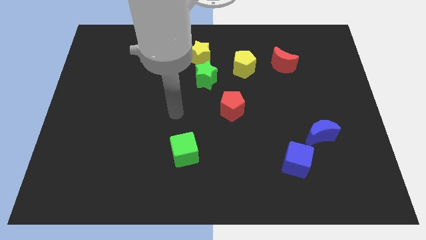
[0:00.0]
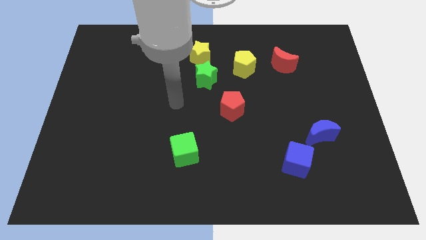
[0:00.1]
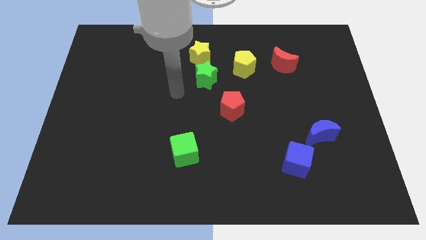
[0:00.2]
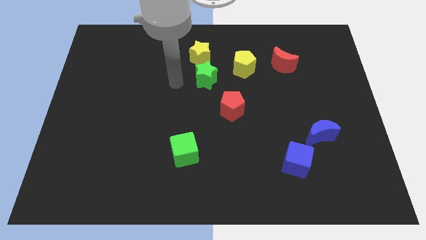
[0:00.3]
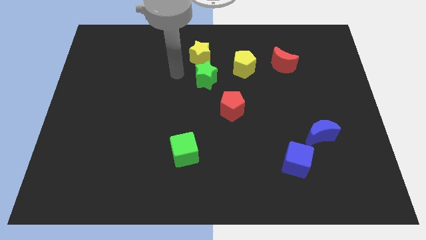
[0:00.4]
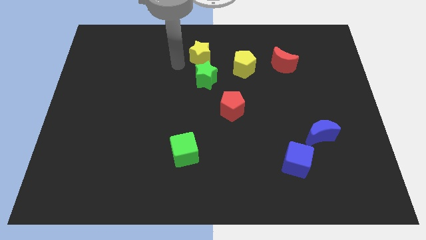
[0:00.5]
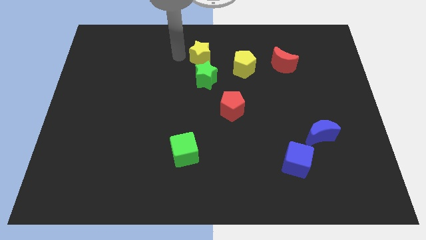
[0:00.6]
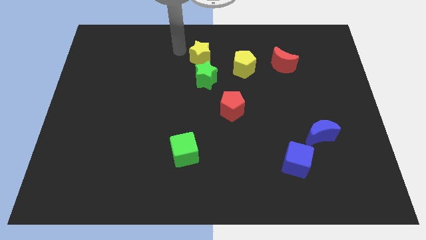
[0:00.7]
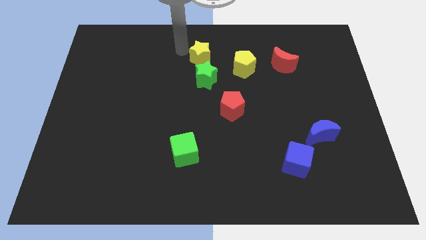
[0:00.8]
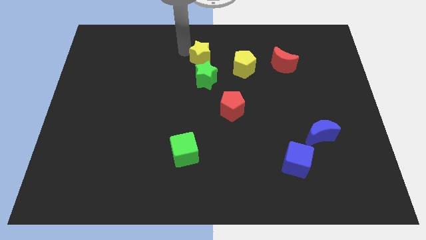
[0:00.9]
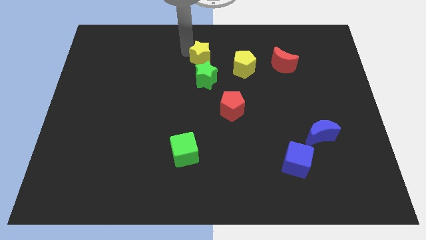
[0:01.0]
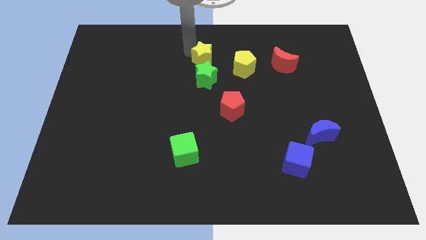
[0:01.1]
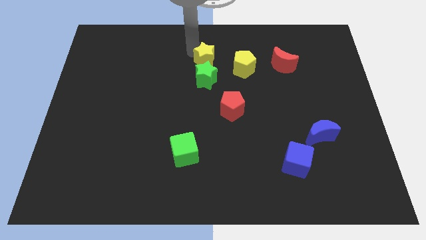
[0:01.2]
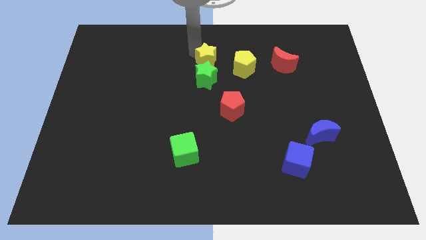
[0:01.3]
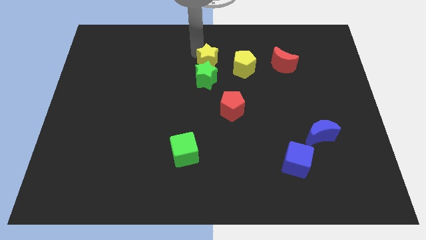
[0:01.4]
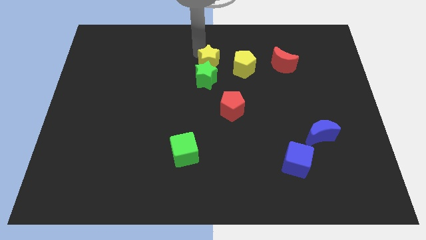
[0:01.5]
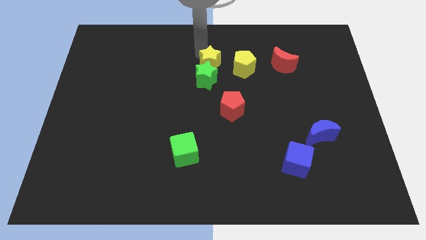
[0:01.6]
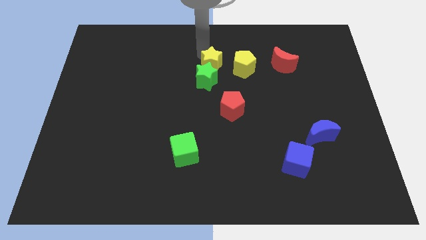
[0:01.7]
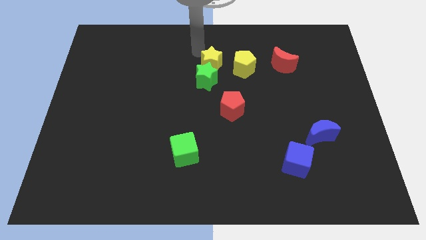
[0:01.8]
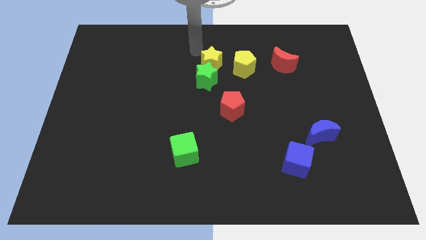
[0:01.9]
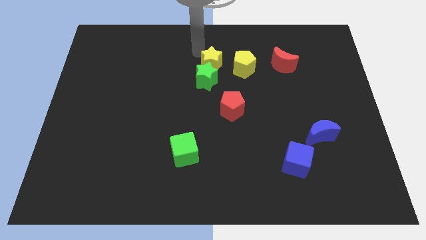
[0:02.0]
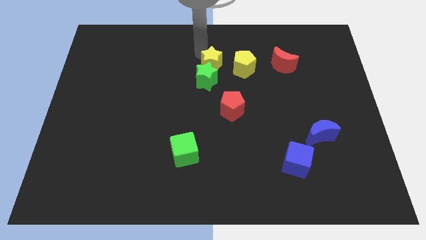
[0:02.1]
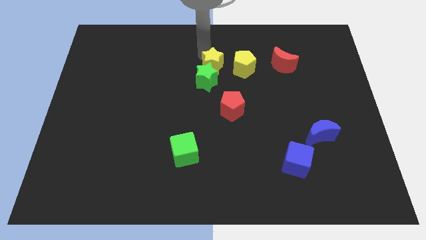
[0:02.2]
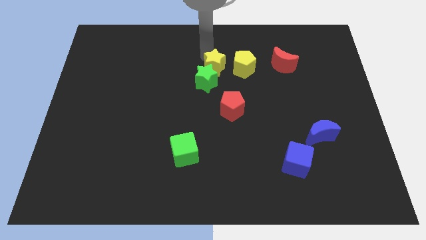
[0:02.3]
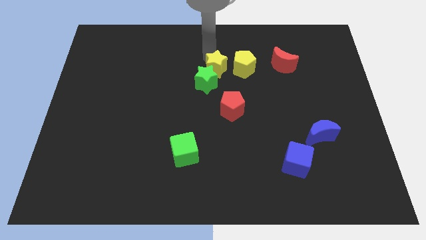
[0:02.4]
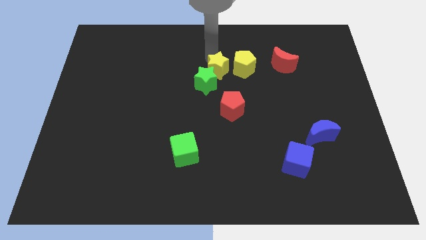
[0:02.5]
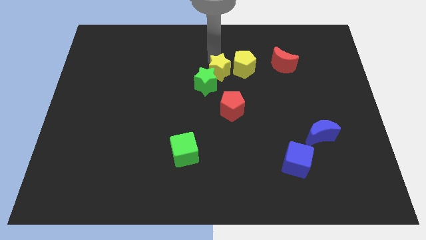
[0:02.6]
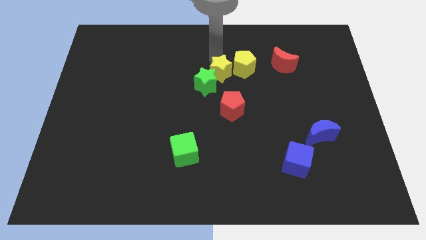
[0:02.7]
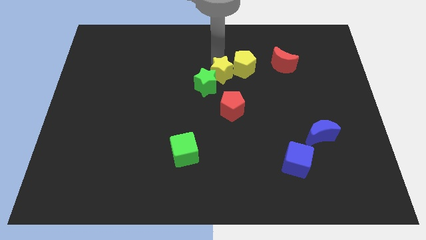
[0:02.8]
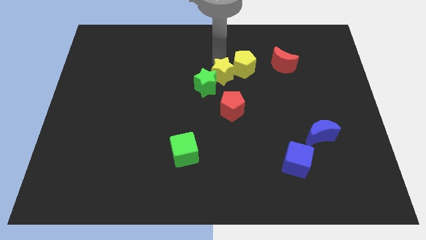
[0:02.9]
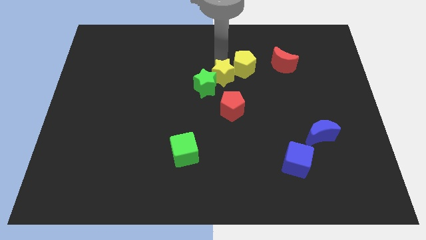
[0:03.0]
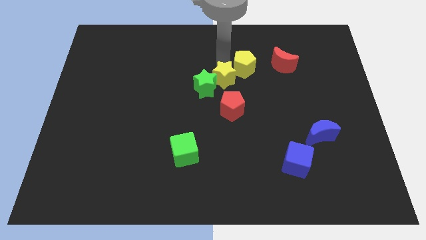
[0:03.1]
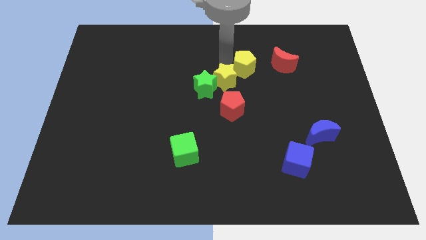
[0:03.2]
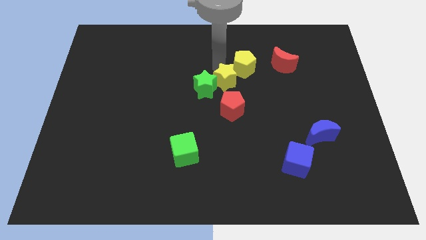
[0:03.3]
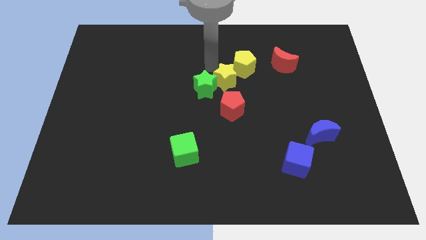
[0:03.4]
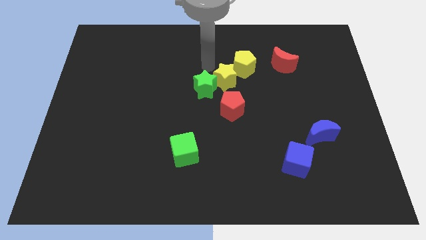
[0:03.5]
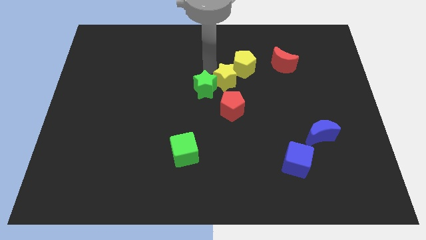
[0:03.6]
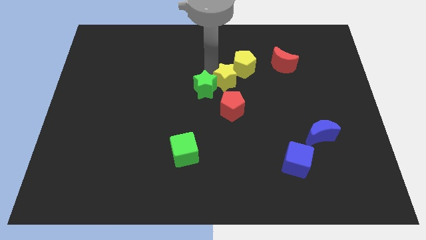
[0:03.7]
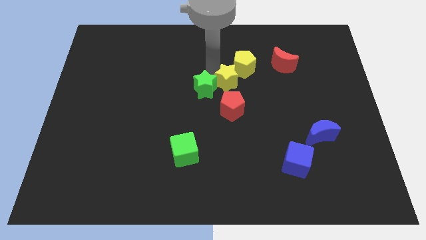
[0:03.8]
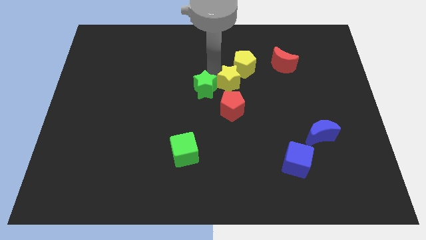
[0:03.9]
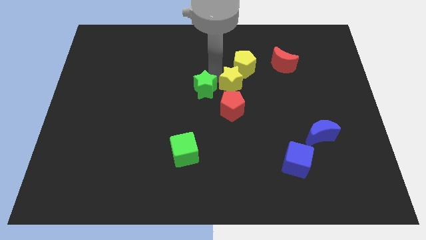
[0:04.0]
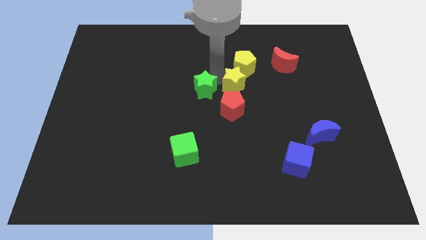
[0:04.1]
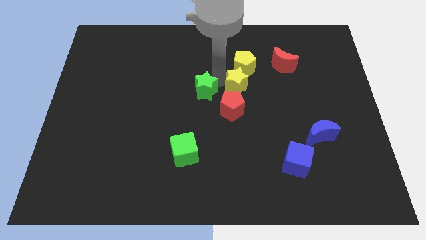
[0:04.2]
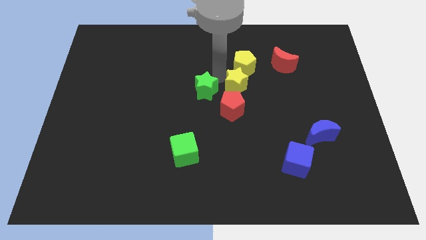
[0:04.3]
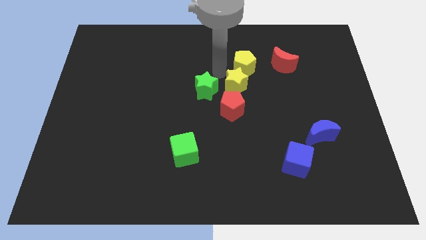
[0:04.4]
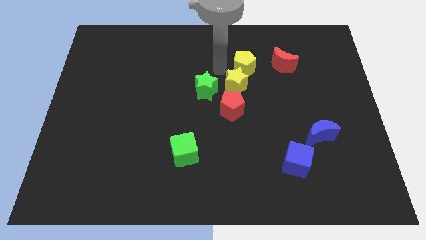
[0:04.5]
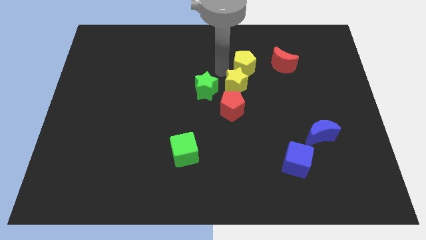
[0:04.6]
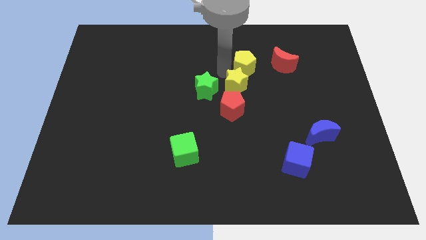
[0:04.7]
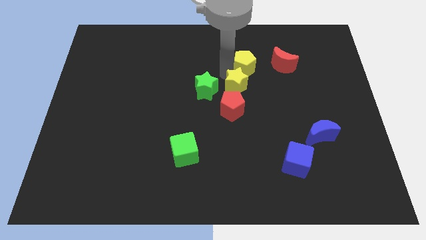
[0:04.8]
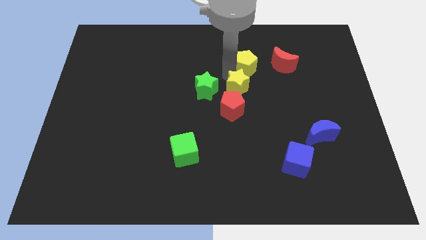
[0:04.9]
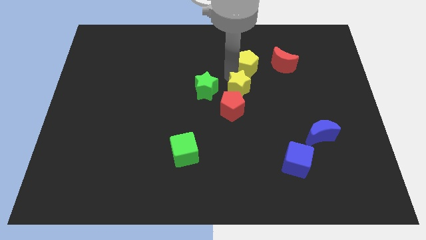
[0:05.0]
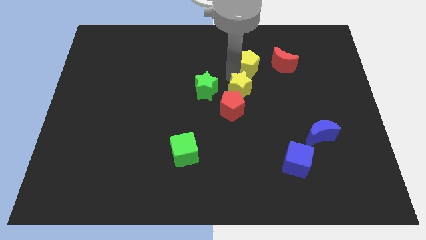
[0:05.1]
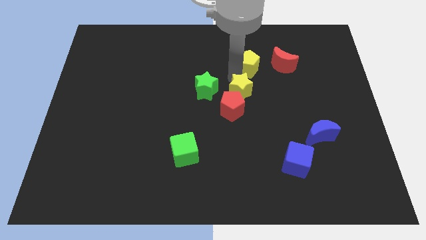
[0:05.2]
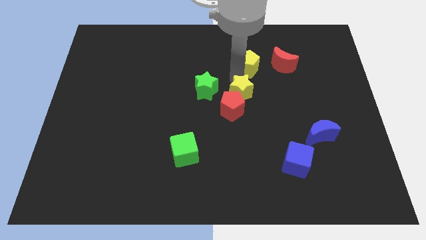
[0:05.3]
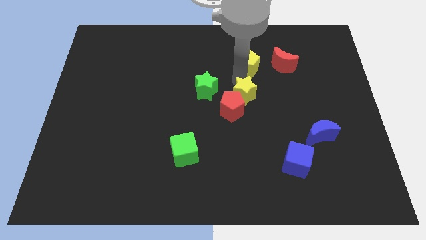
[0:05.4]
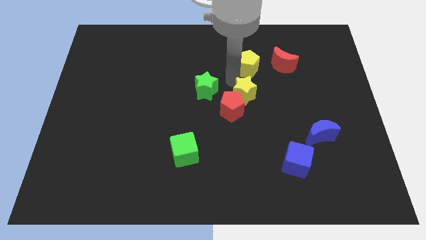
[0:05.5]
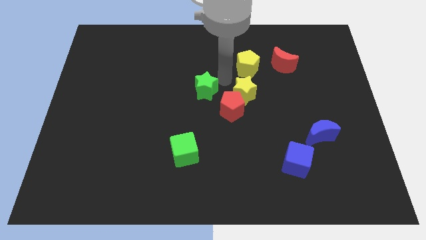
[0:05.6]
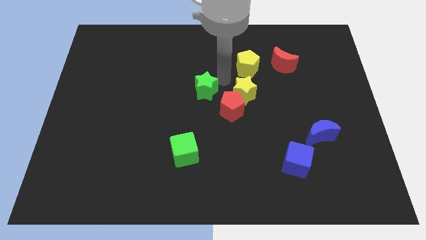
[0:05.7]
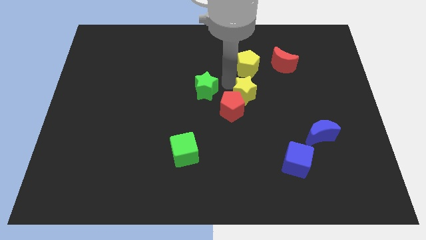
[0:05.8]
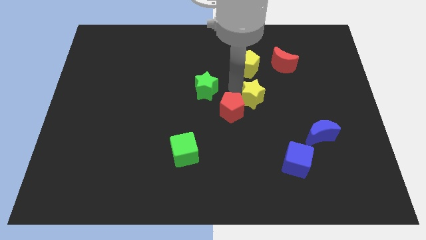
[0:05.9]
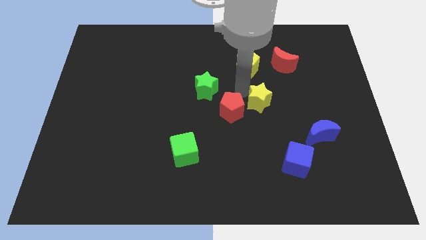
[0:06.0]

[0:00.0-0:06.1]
slide the yellow star diagonally downwards and right

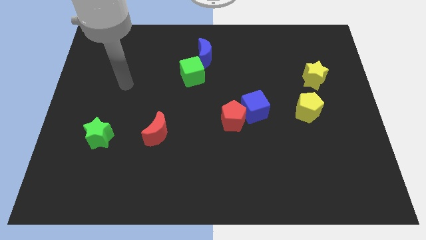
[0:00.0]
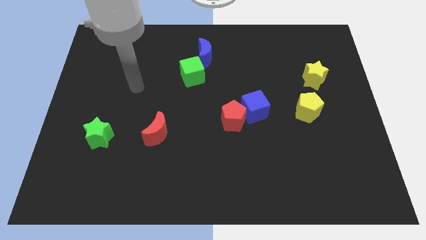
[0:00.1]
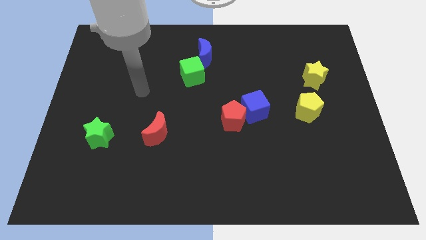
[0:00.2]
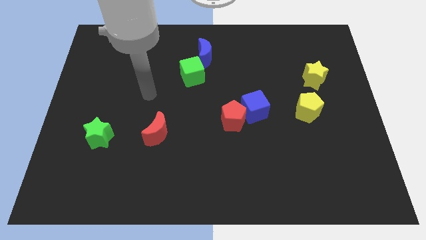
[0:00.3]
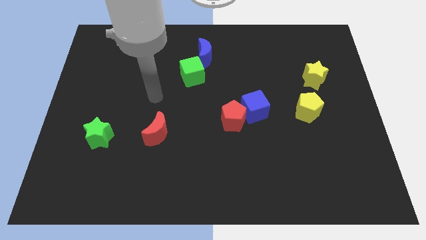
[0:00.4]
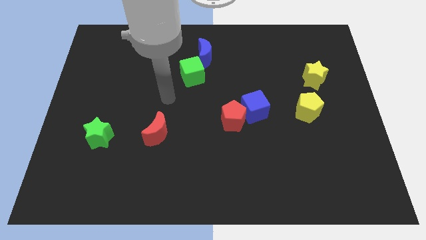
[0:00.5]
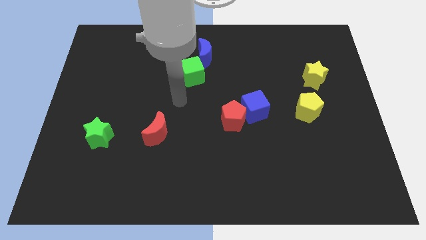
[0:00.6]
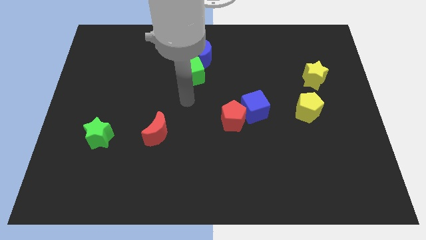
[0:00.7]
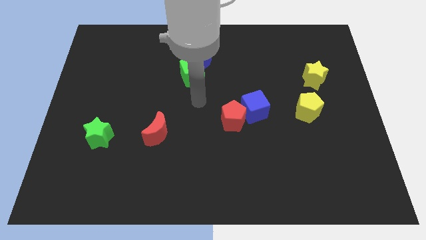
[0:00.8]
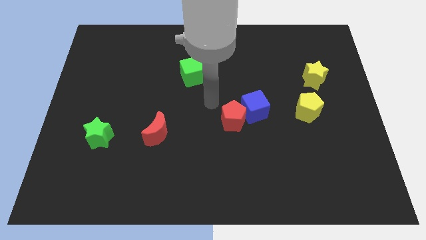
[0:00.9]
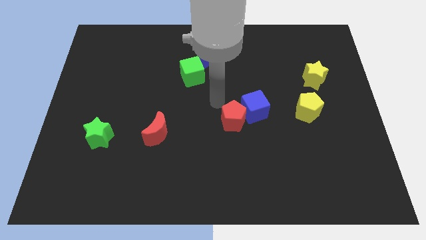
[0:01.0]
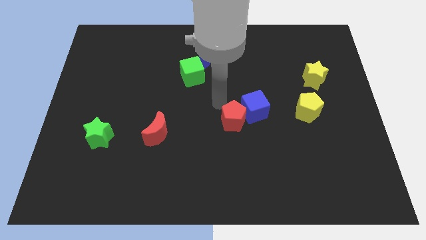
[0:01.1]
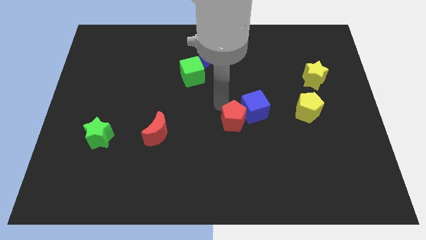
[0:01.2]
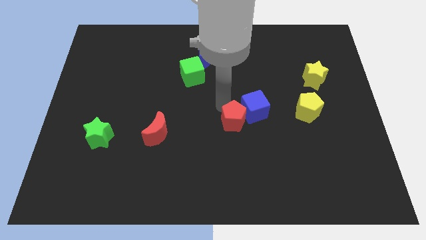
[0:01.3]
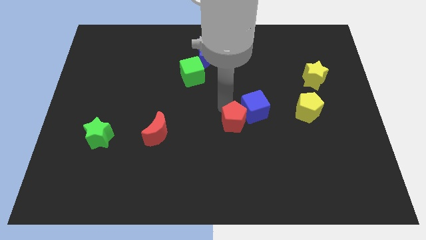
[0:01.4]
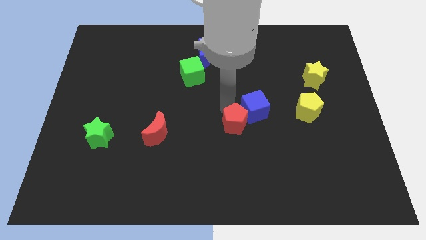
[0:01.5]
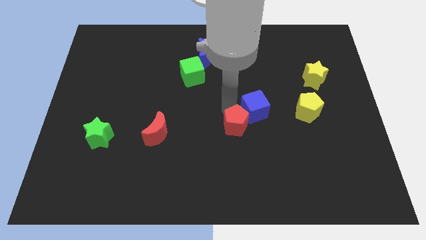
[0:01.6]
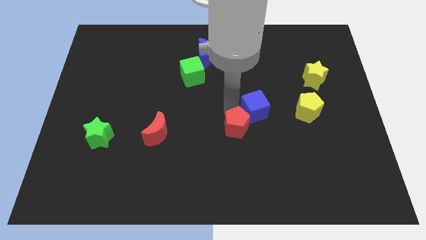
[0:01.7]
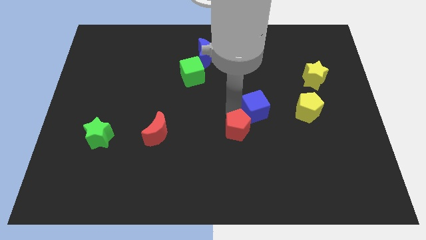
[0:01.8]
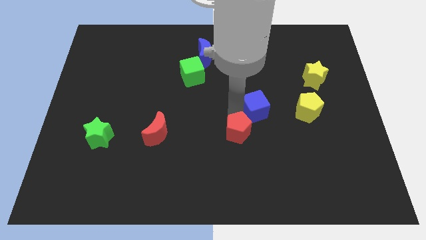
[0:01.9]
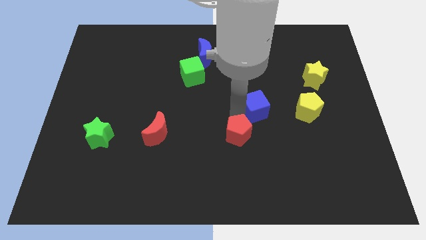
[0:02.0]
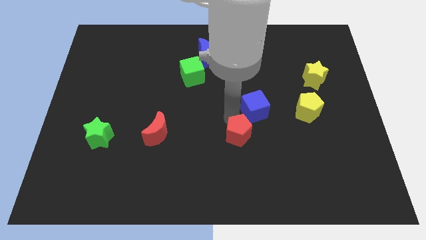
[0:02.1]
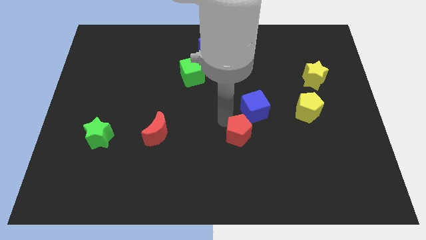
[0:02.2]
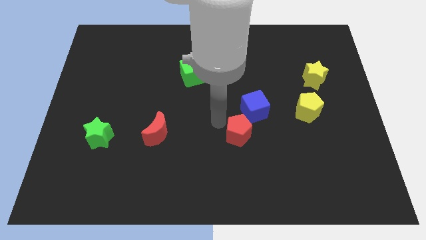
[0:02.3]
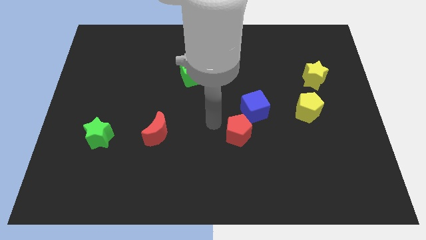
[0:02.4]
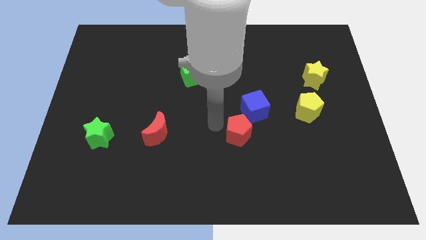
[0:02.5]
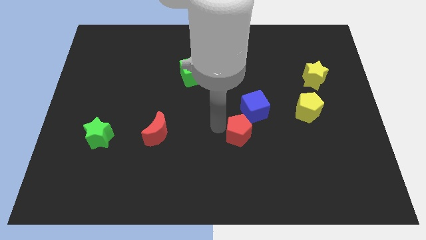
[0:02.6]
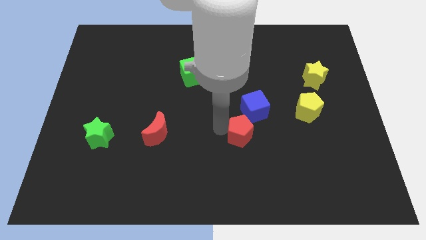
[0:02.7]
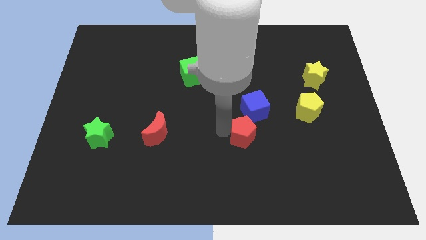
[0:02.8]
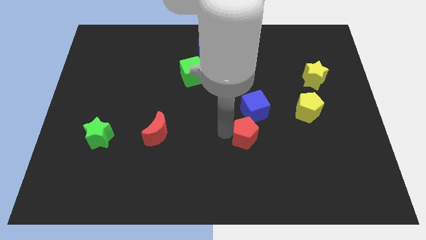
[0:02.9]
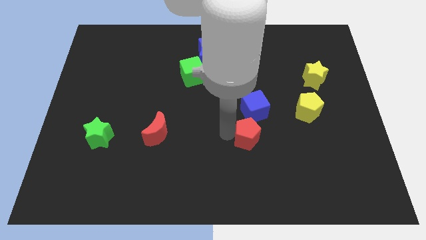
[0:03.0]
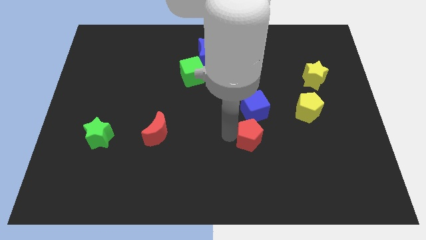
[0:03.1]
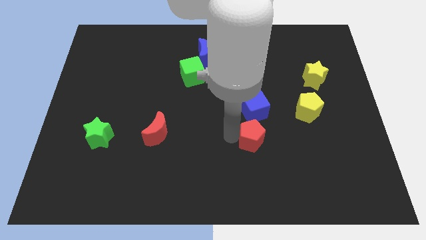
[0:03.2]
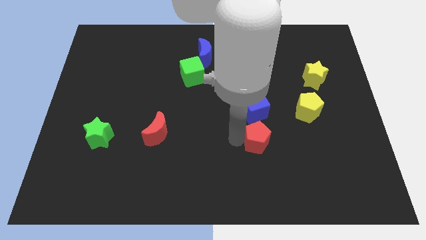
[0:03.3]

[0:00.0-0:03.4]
slightly slide the red pentagon downwards and to the right
